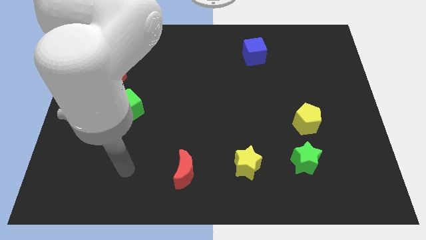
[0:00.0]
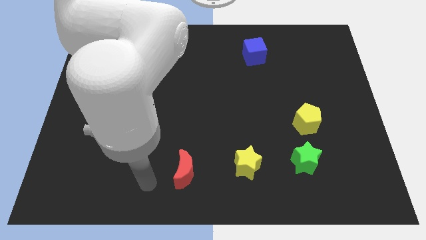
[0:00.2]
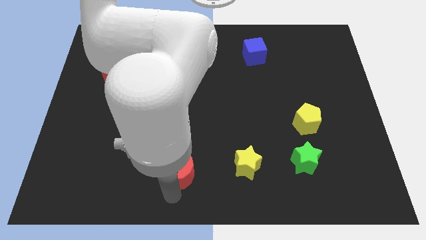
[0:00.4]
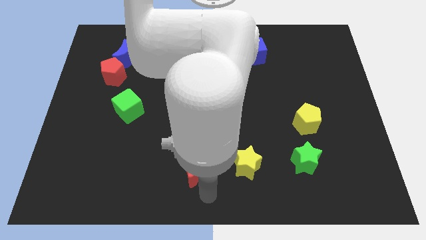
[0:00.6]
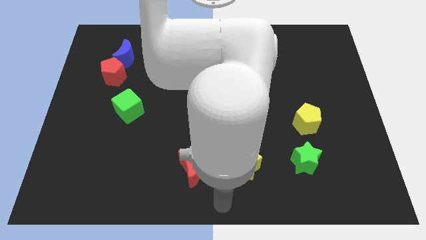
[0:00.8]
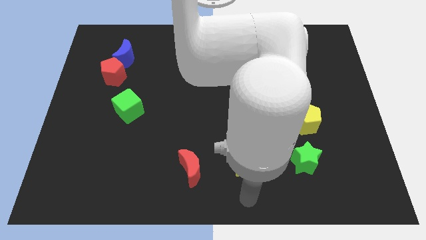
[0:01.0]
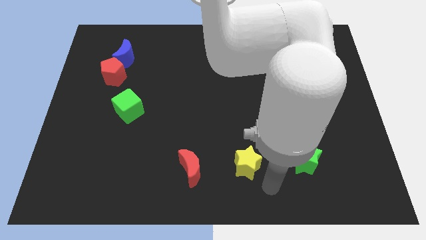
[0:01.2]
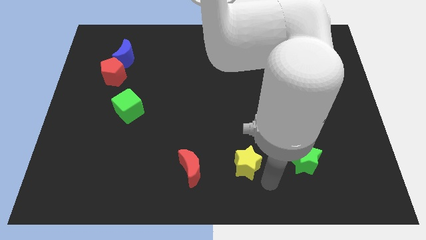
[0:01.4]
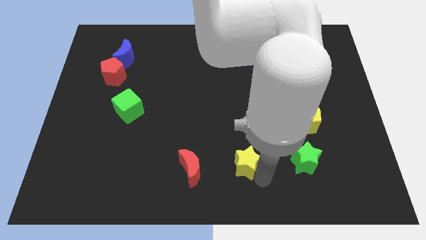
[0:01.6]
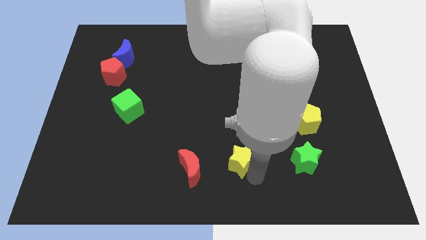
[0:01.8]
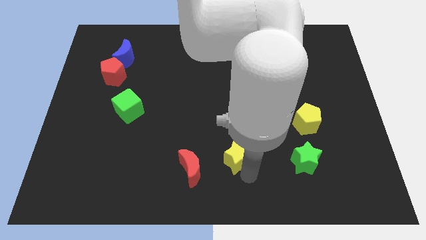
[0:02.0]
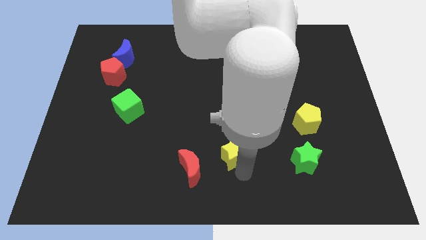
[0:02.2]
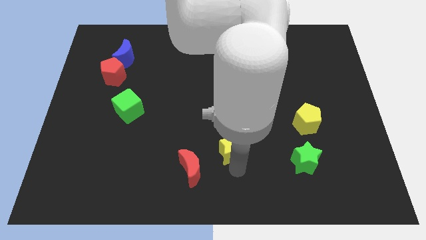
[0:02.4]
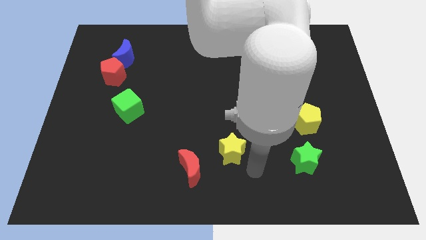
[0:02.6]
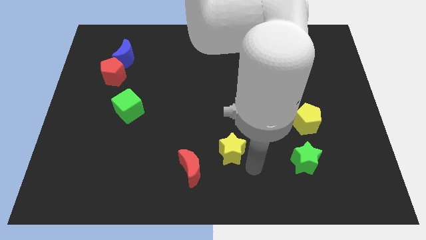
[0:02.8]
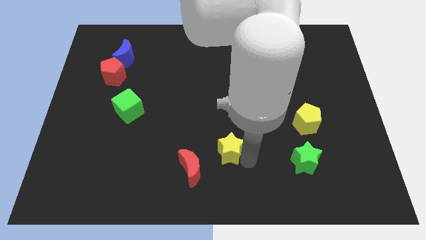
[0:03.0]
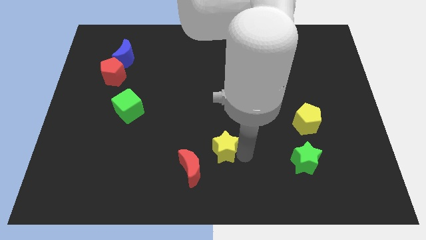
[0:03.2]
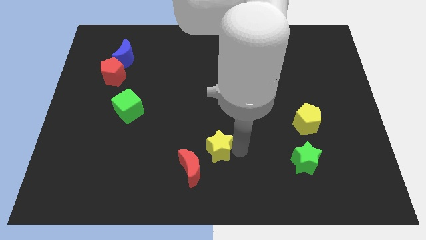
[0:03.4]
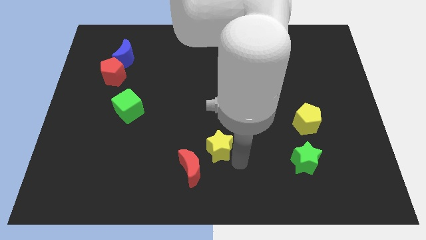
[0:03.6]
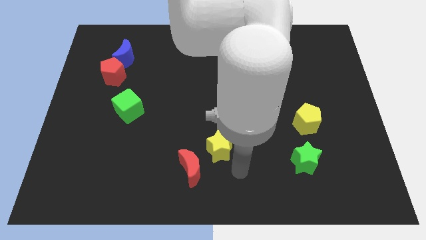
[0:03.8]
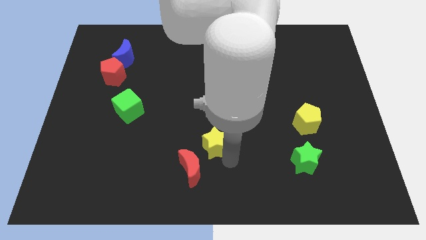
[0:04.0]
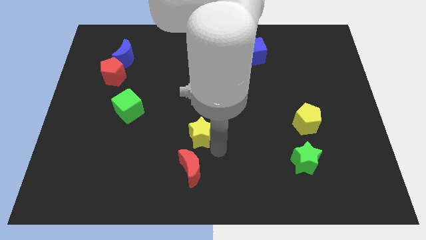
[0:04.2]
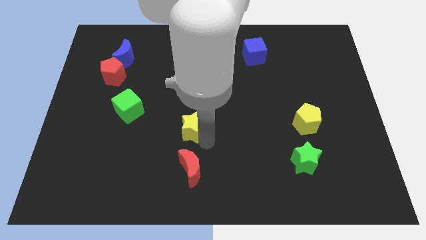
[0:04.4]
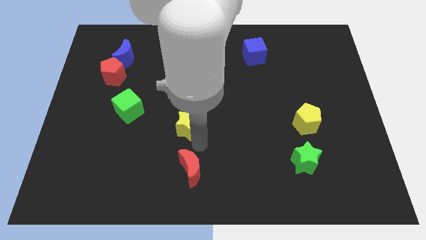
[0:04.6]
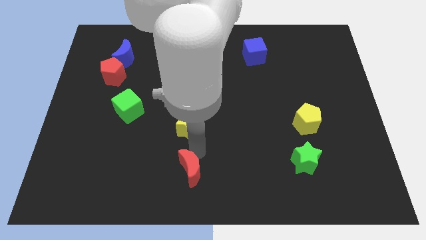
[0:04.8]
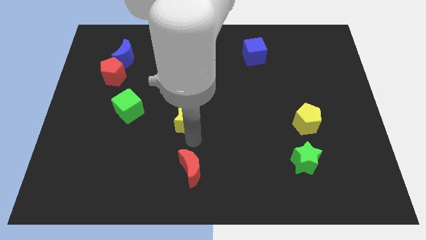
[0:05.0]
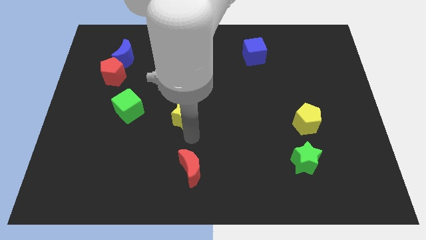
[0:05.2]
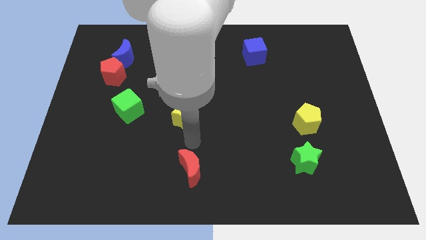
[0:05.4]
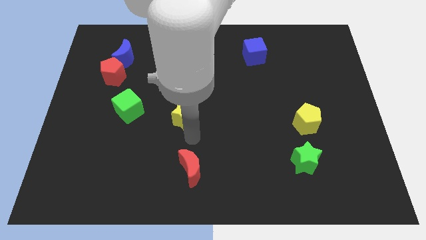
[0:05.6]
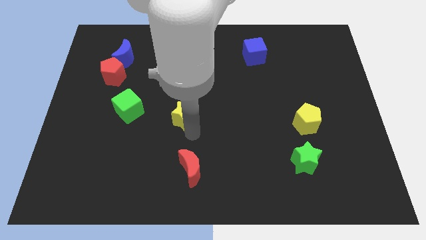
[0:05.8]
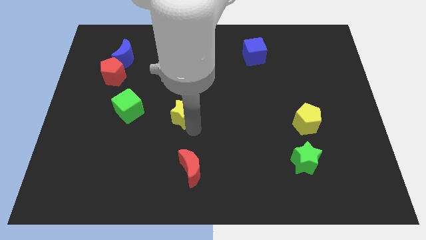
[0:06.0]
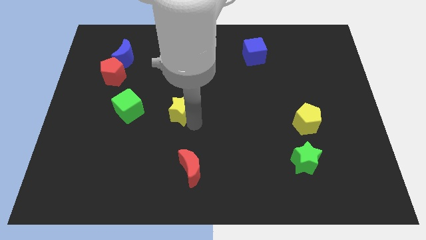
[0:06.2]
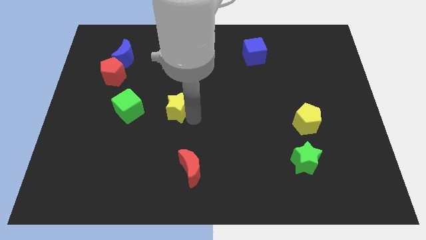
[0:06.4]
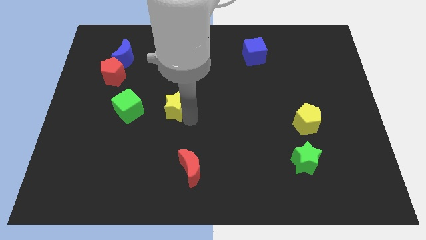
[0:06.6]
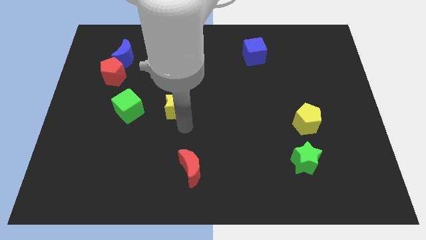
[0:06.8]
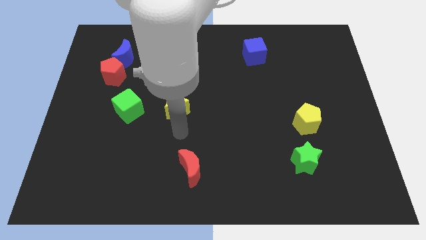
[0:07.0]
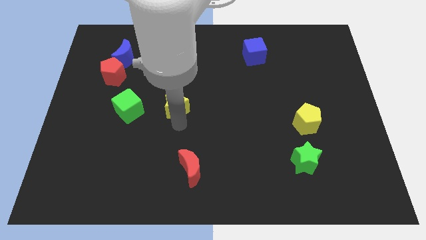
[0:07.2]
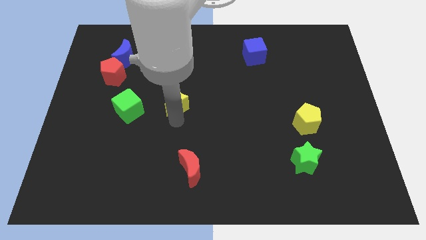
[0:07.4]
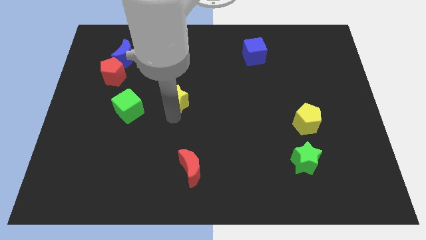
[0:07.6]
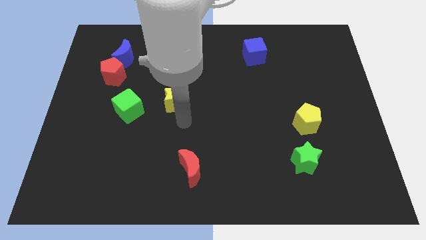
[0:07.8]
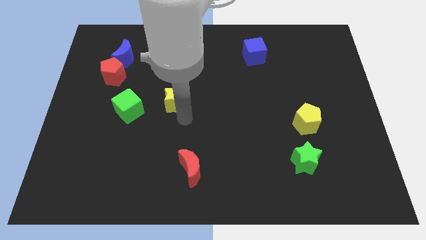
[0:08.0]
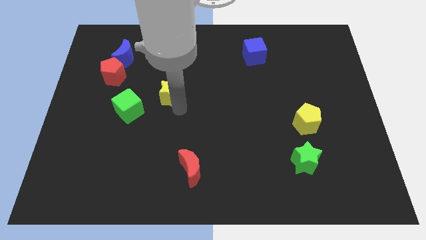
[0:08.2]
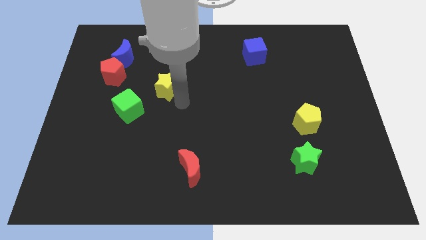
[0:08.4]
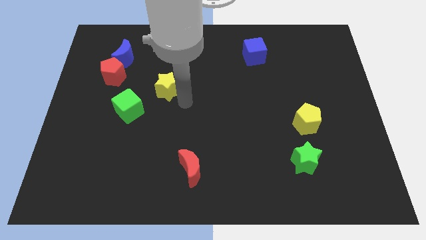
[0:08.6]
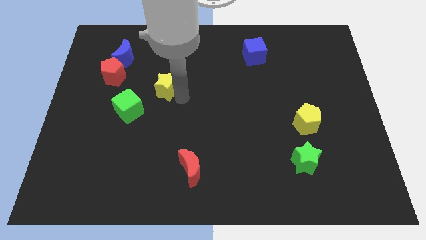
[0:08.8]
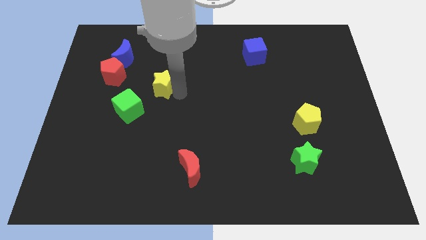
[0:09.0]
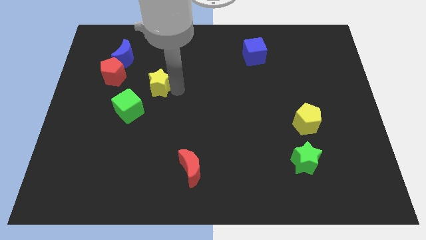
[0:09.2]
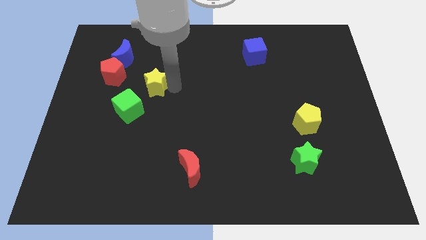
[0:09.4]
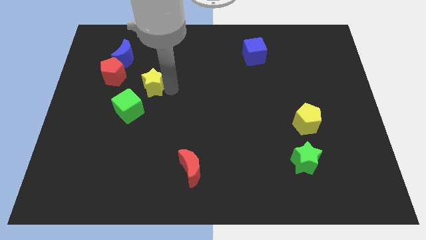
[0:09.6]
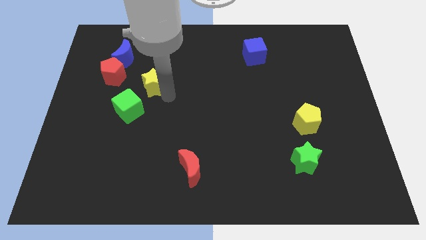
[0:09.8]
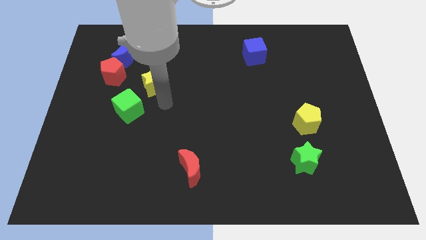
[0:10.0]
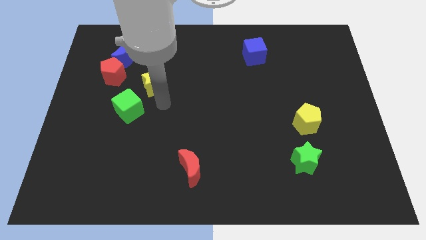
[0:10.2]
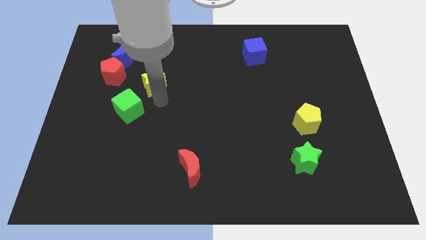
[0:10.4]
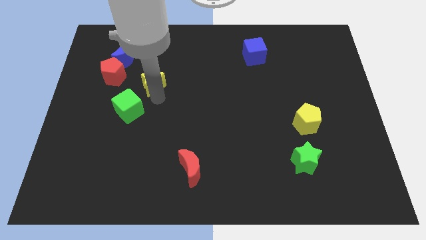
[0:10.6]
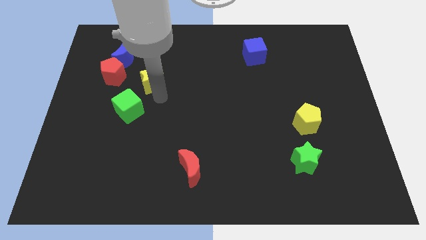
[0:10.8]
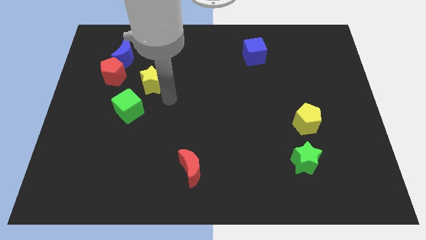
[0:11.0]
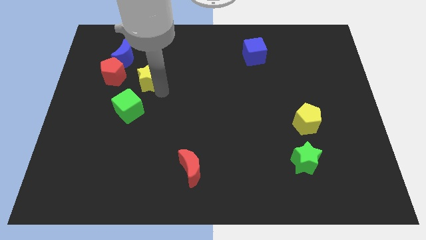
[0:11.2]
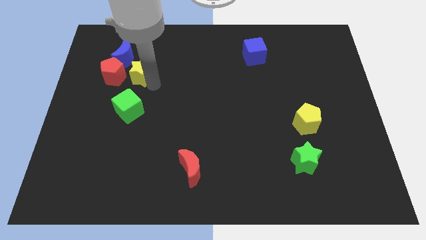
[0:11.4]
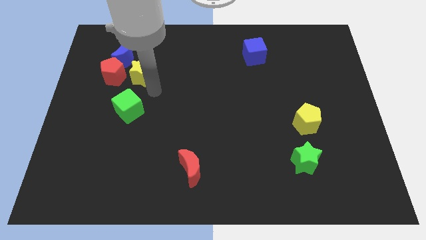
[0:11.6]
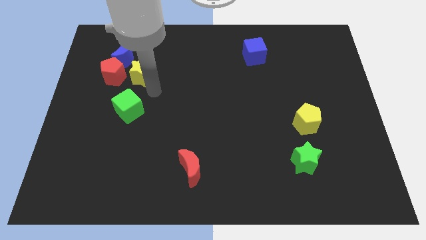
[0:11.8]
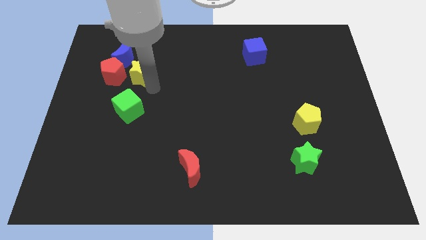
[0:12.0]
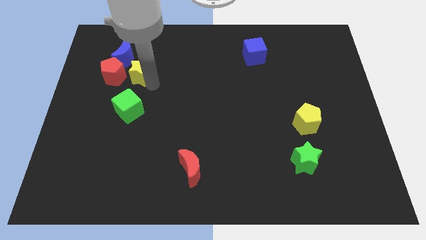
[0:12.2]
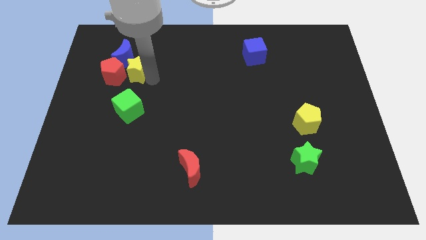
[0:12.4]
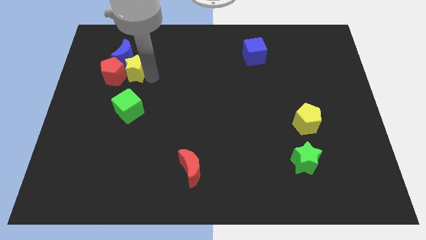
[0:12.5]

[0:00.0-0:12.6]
slide the yellow star next to the blue moon
